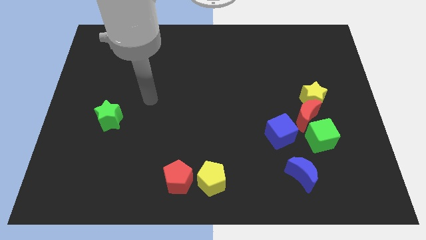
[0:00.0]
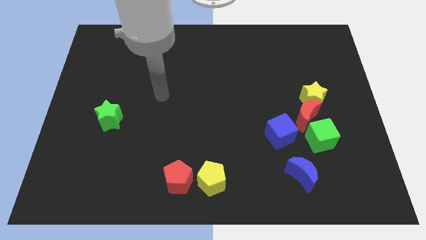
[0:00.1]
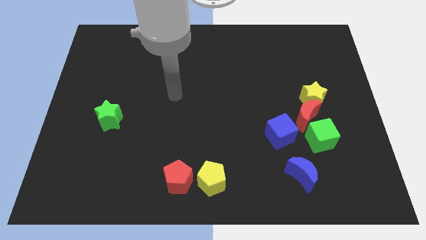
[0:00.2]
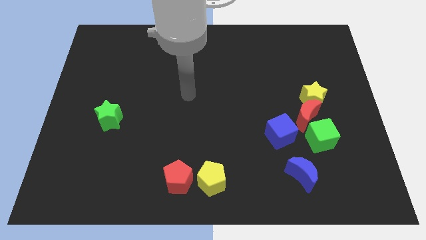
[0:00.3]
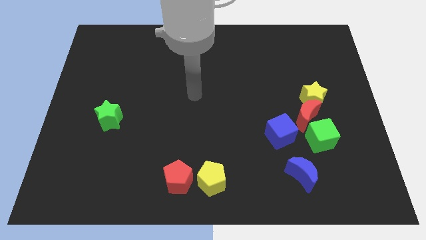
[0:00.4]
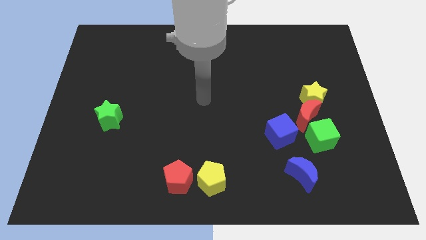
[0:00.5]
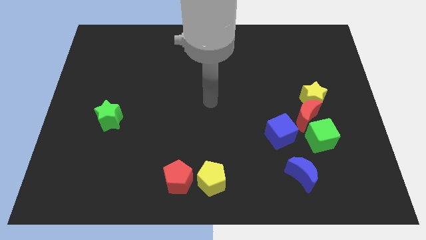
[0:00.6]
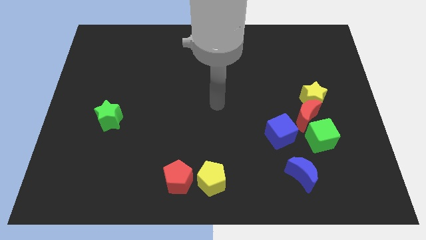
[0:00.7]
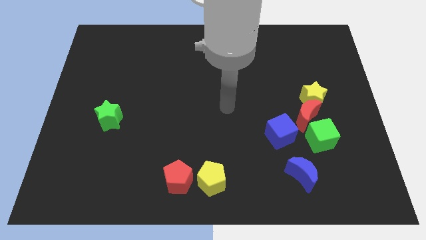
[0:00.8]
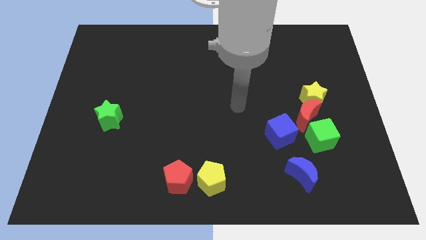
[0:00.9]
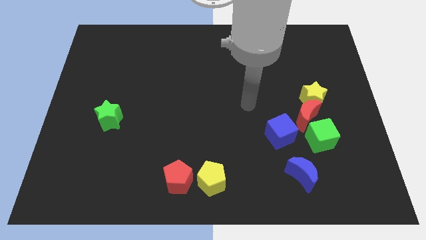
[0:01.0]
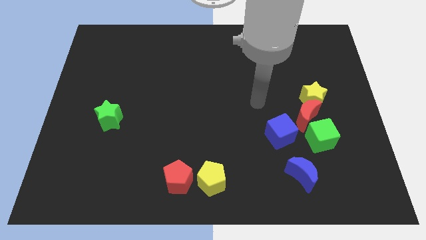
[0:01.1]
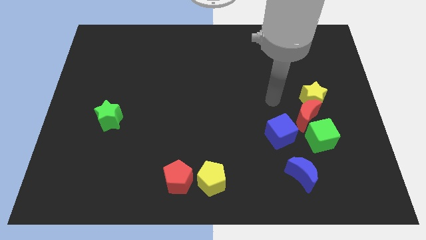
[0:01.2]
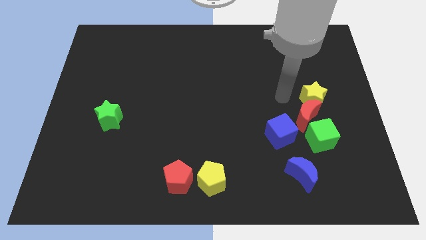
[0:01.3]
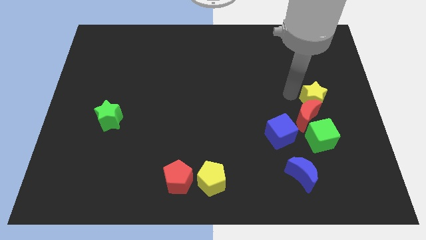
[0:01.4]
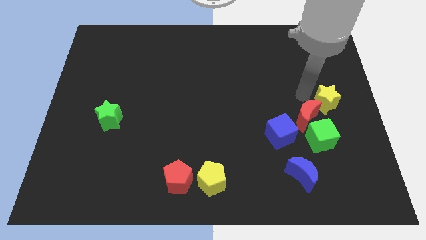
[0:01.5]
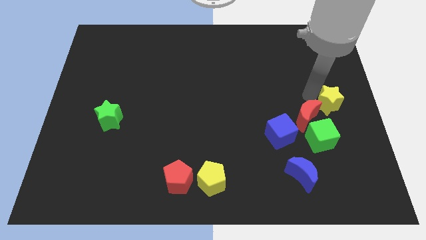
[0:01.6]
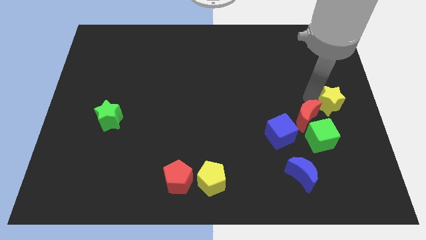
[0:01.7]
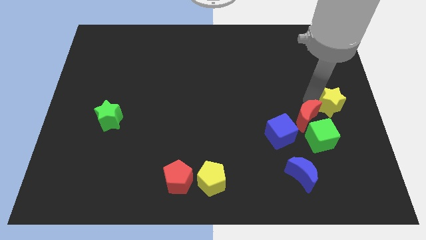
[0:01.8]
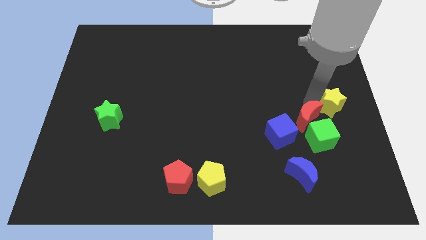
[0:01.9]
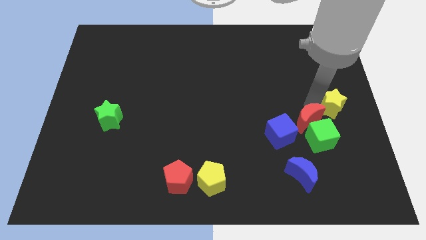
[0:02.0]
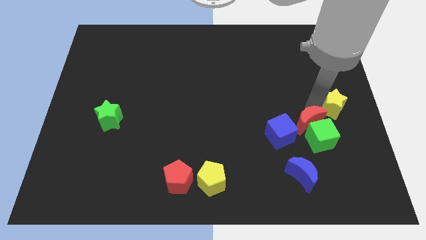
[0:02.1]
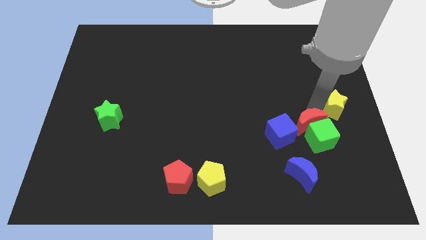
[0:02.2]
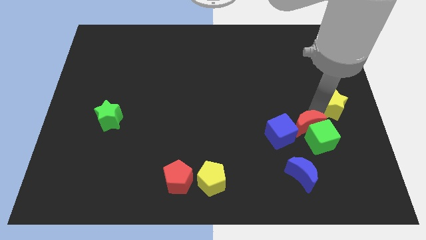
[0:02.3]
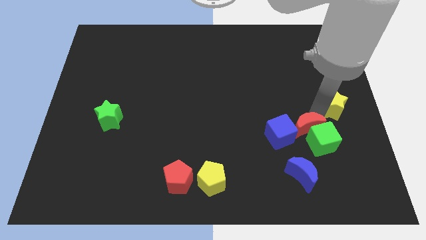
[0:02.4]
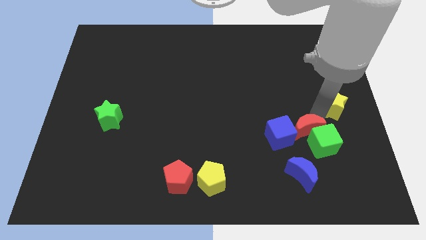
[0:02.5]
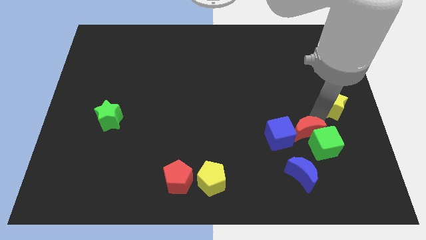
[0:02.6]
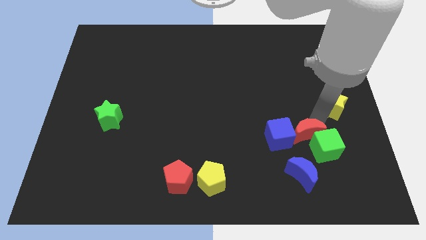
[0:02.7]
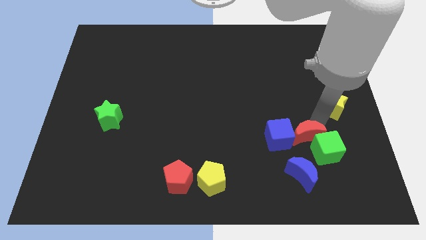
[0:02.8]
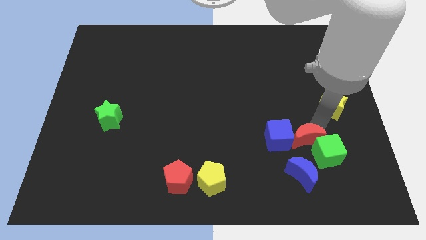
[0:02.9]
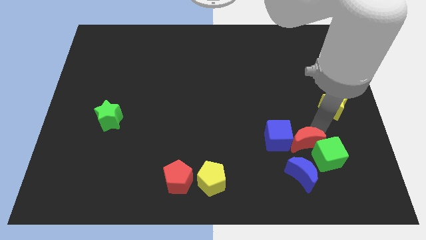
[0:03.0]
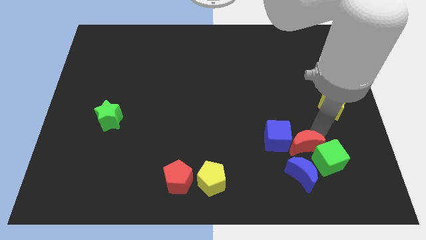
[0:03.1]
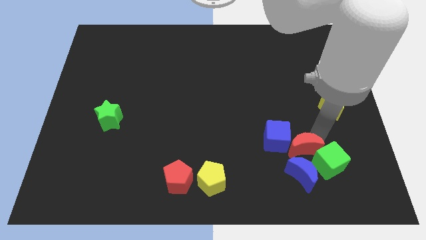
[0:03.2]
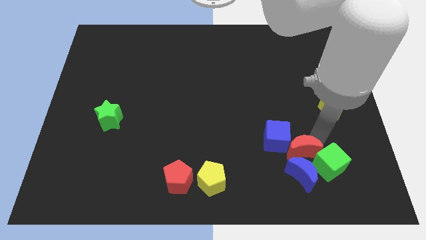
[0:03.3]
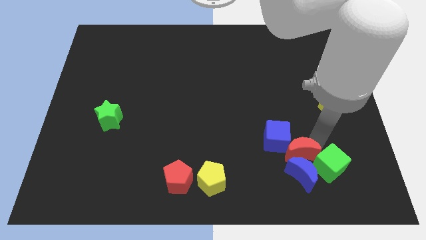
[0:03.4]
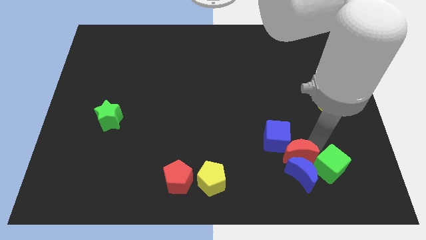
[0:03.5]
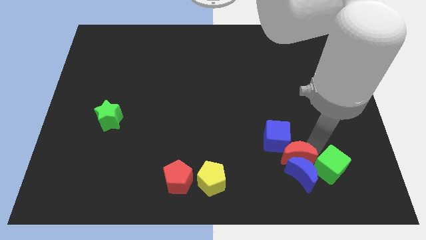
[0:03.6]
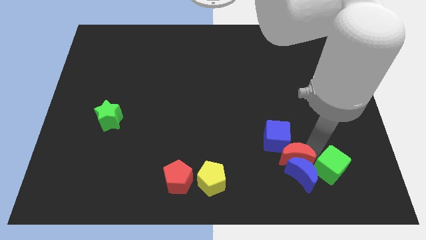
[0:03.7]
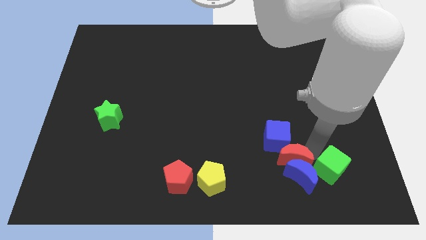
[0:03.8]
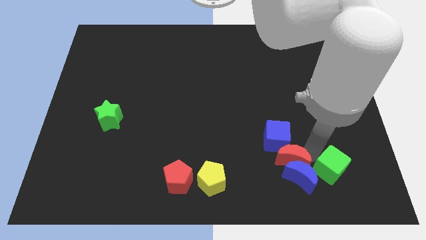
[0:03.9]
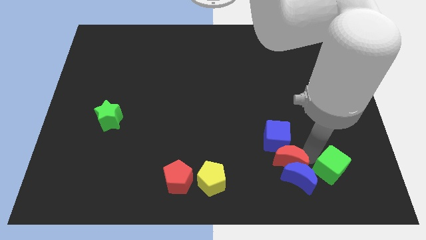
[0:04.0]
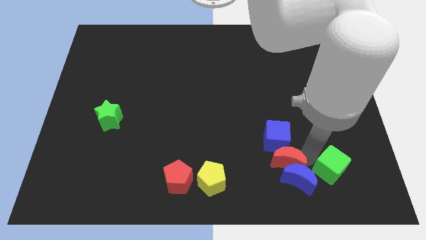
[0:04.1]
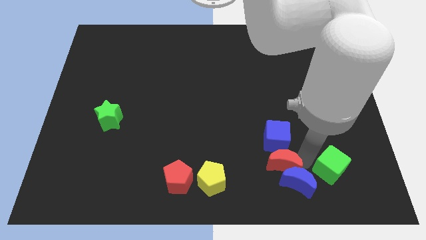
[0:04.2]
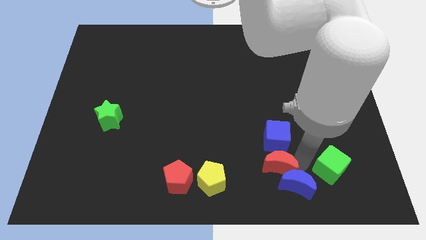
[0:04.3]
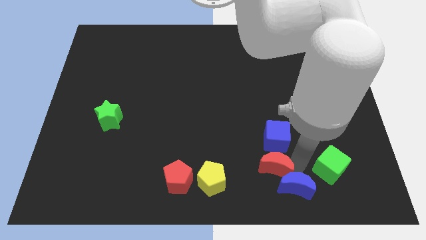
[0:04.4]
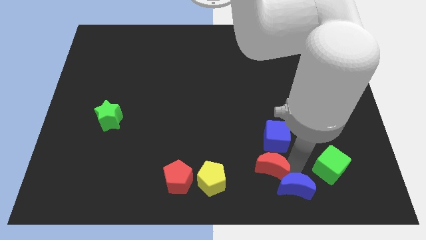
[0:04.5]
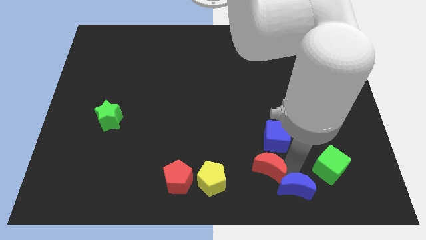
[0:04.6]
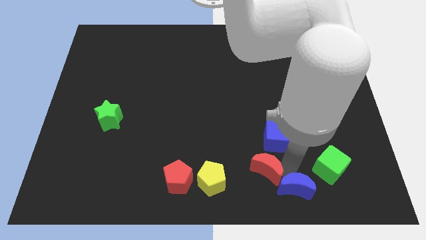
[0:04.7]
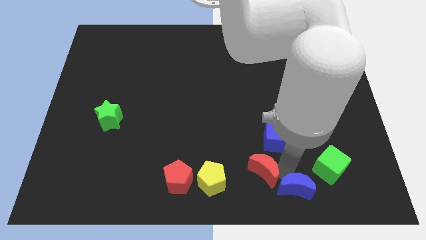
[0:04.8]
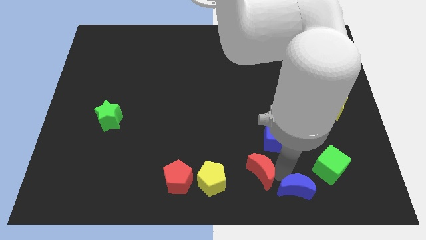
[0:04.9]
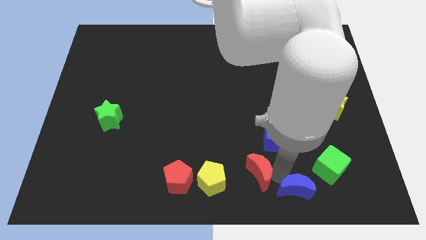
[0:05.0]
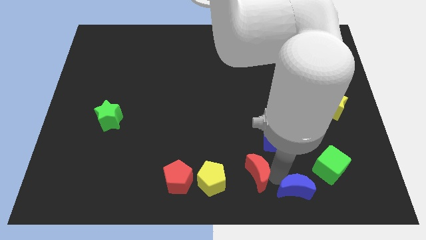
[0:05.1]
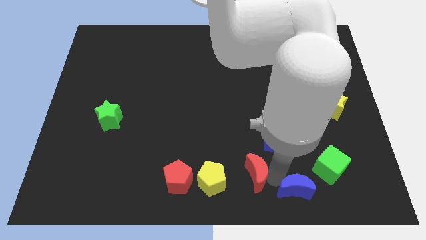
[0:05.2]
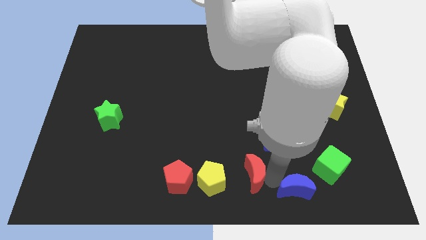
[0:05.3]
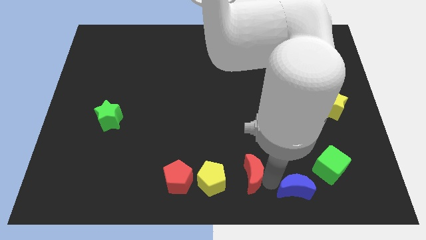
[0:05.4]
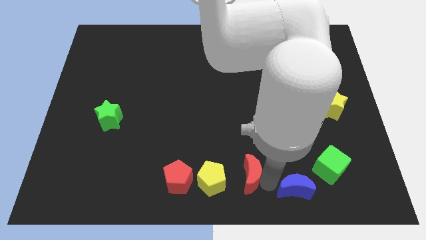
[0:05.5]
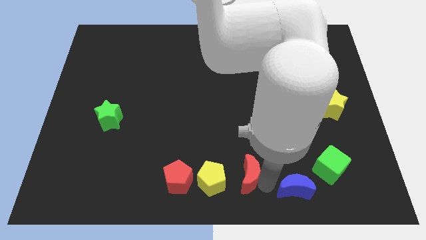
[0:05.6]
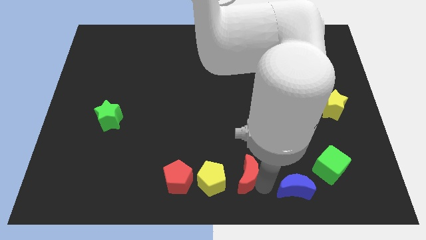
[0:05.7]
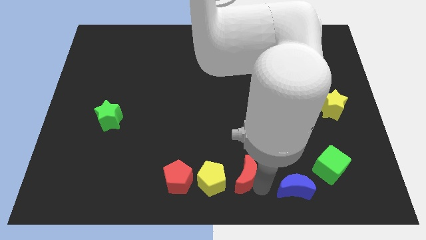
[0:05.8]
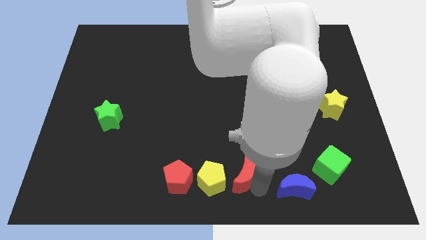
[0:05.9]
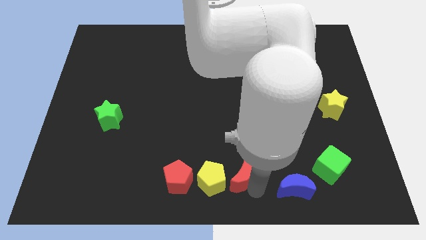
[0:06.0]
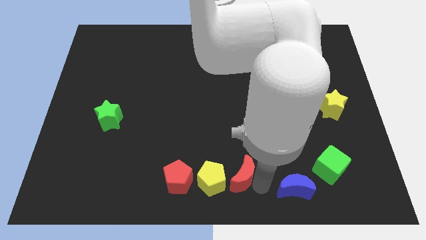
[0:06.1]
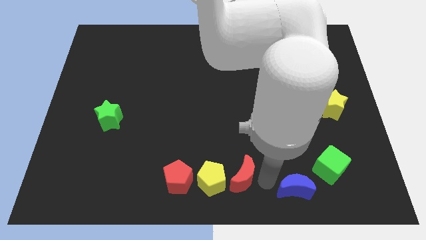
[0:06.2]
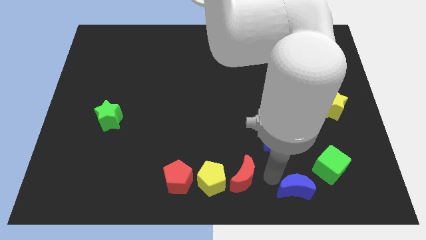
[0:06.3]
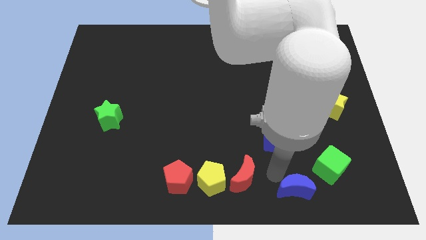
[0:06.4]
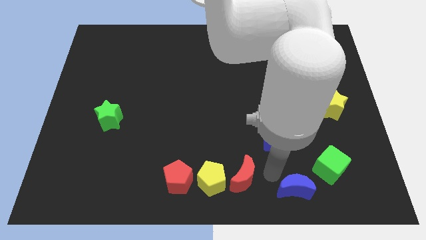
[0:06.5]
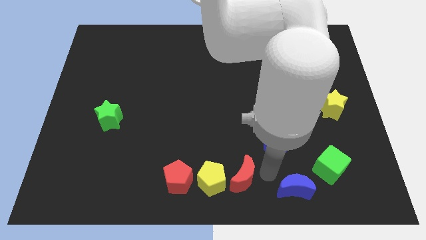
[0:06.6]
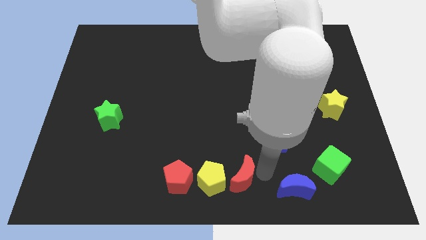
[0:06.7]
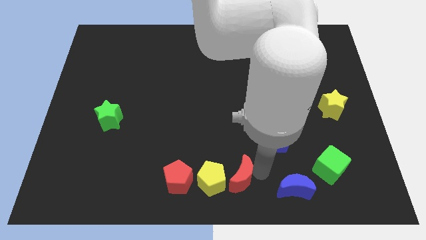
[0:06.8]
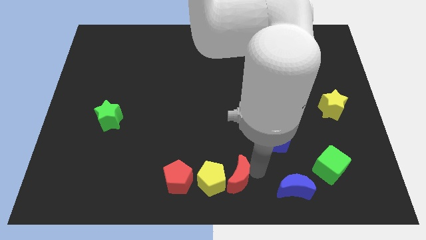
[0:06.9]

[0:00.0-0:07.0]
slide the red moon close to the yellow pentagon
